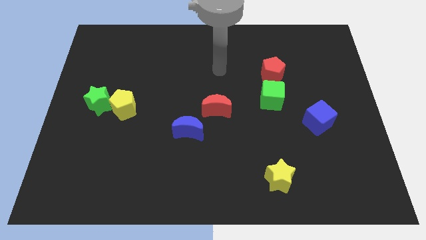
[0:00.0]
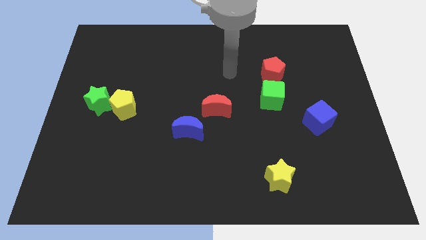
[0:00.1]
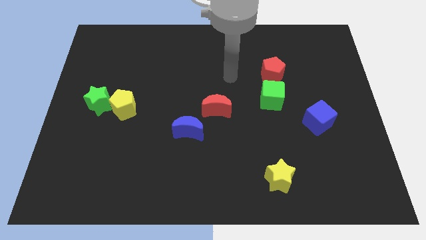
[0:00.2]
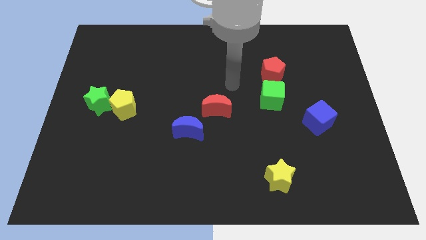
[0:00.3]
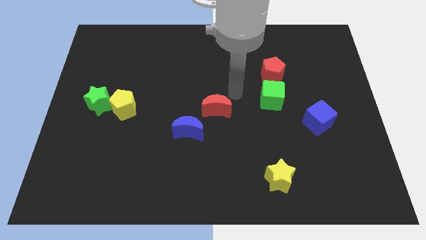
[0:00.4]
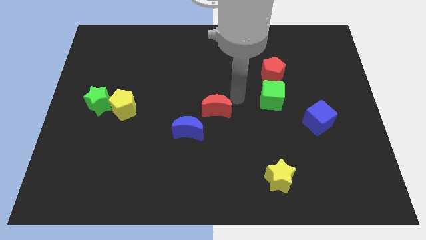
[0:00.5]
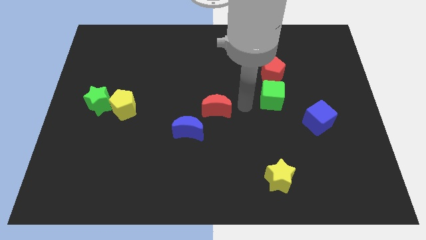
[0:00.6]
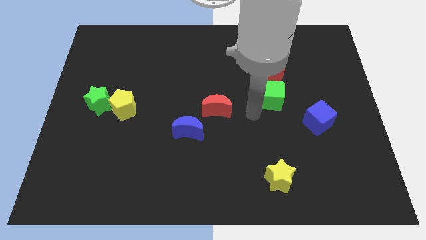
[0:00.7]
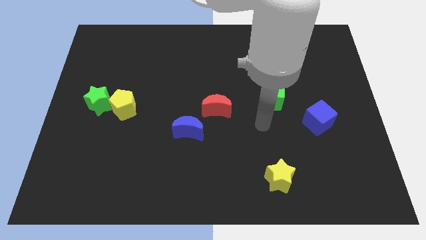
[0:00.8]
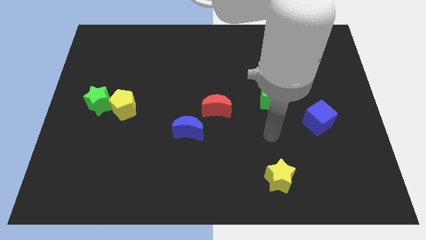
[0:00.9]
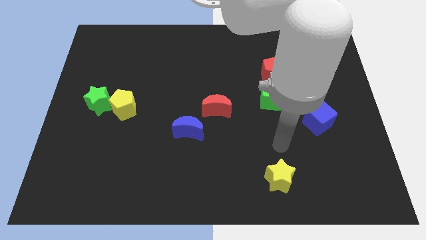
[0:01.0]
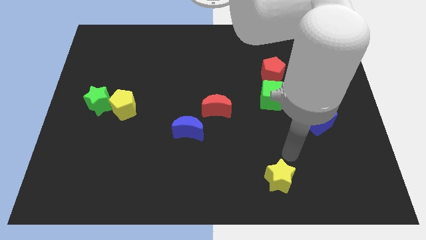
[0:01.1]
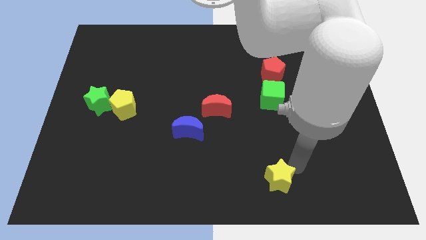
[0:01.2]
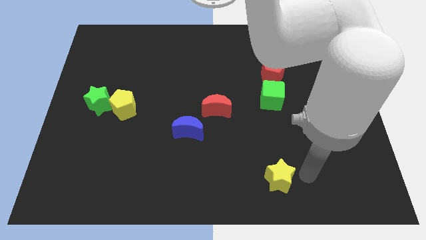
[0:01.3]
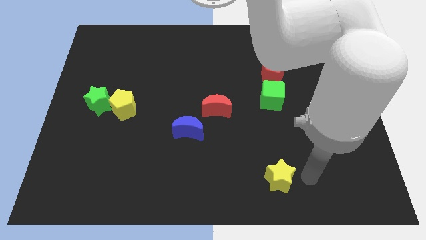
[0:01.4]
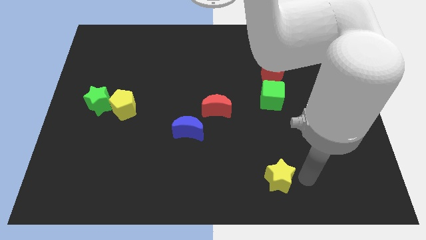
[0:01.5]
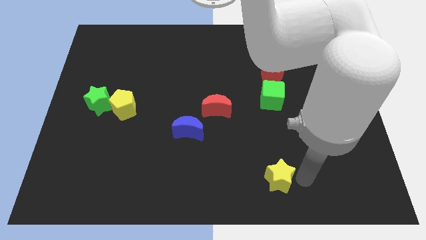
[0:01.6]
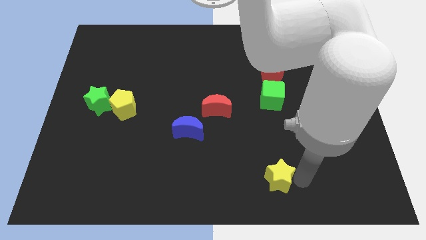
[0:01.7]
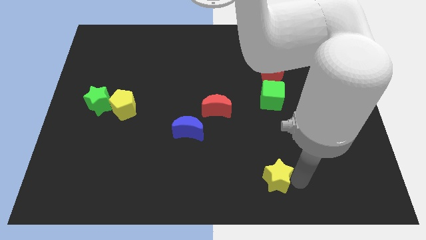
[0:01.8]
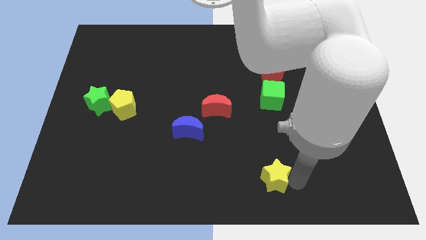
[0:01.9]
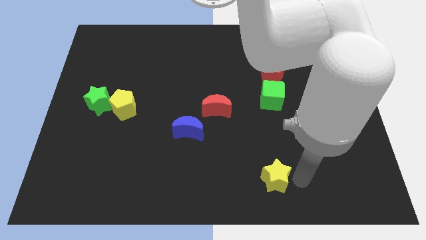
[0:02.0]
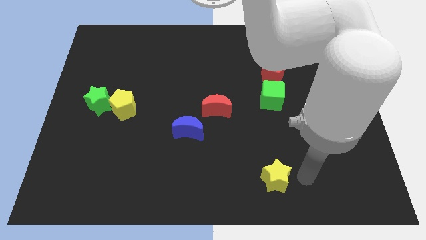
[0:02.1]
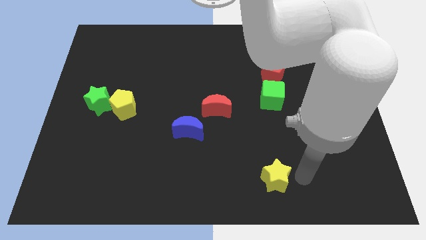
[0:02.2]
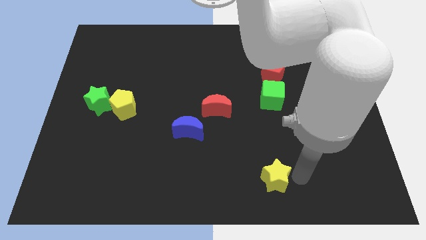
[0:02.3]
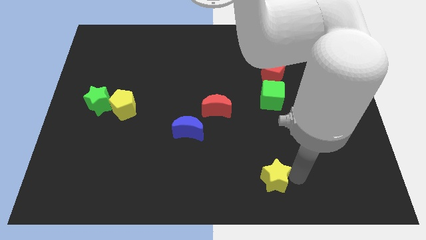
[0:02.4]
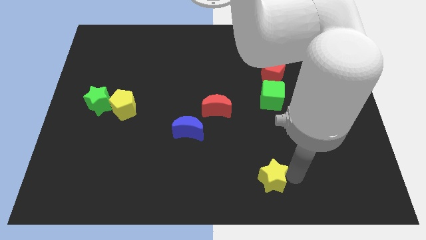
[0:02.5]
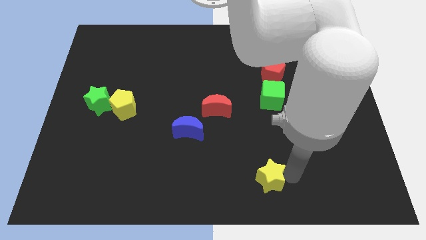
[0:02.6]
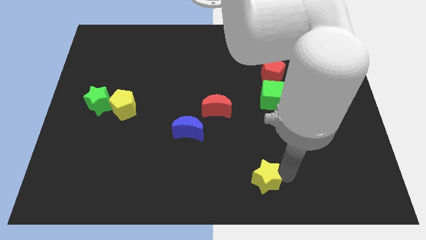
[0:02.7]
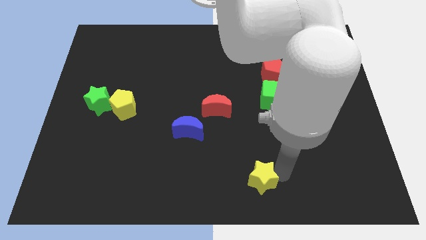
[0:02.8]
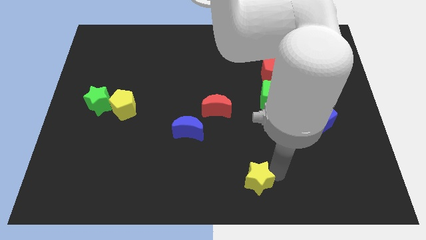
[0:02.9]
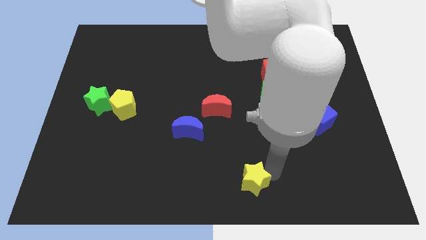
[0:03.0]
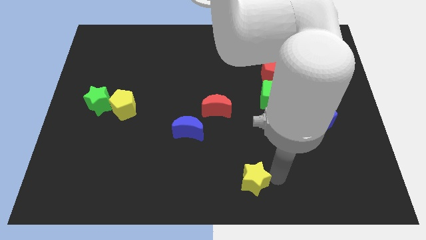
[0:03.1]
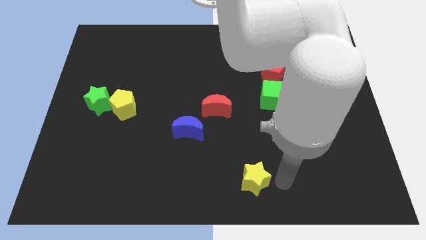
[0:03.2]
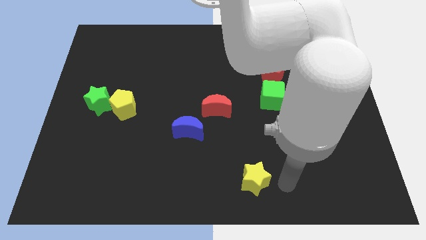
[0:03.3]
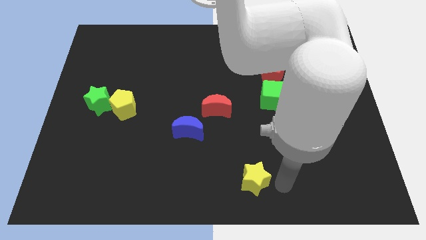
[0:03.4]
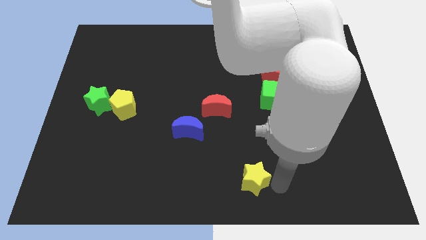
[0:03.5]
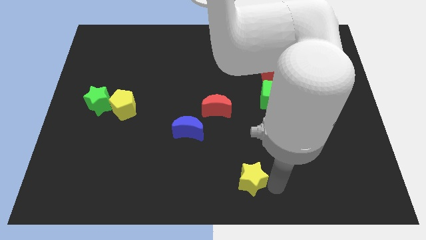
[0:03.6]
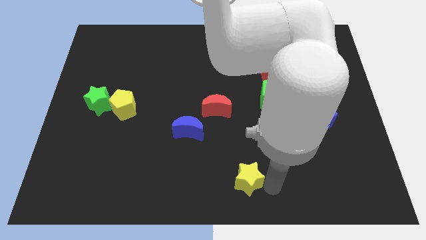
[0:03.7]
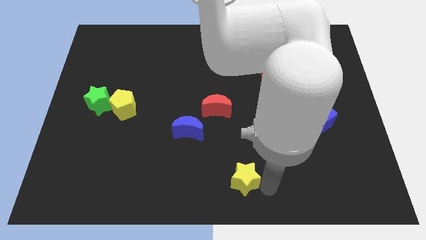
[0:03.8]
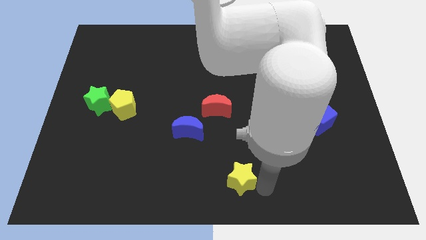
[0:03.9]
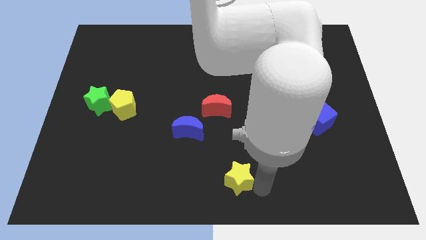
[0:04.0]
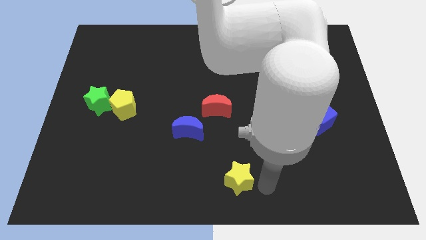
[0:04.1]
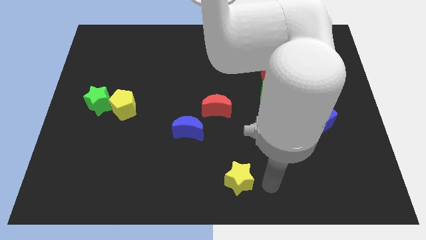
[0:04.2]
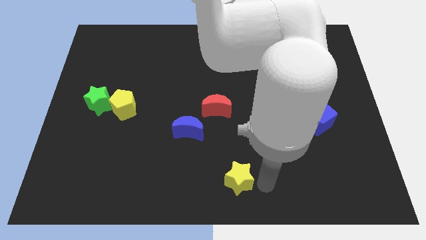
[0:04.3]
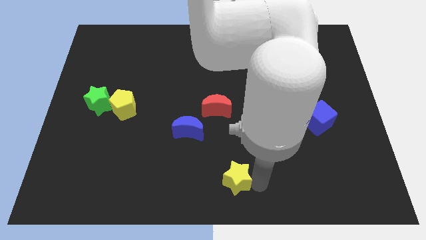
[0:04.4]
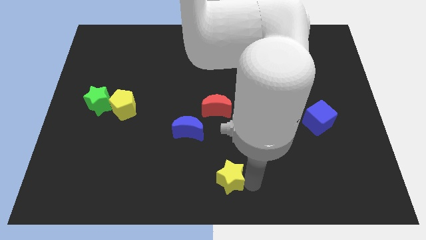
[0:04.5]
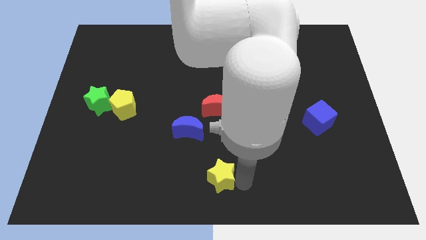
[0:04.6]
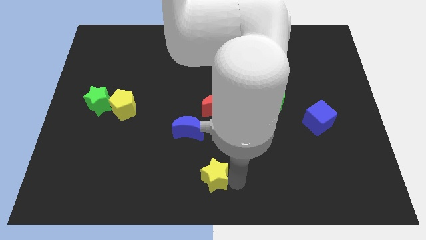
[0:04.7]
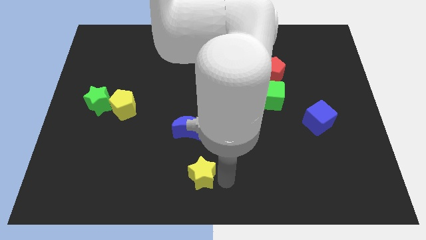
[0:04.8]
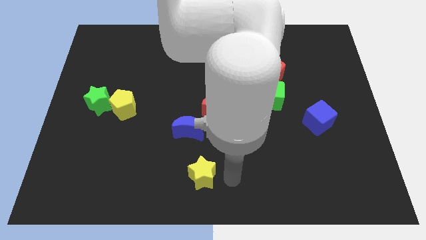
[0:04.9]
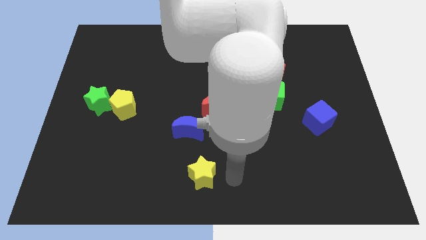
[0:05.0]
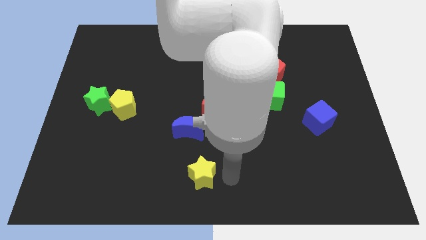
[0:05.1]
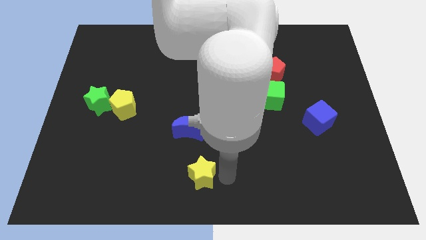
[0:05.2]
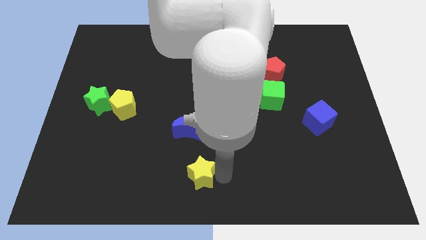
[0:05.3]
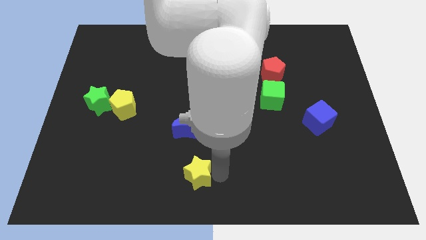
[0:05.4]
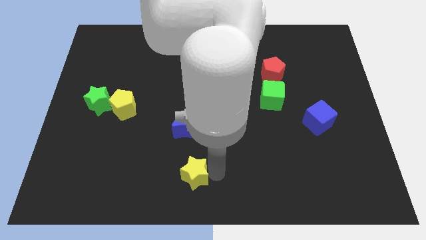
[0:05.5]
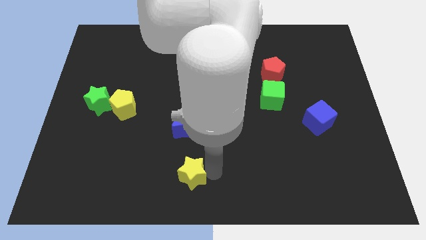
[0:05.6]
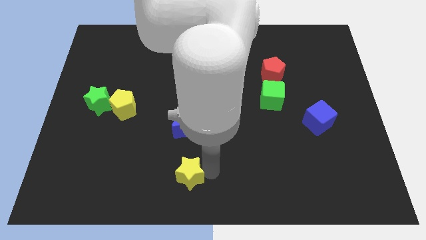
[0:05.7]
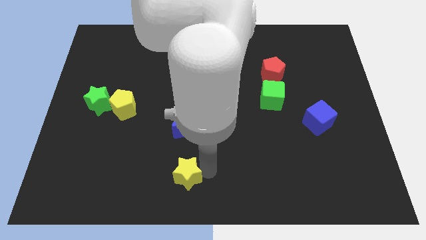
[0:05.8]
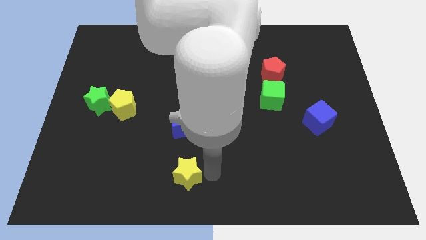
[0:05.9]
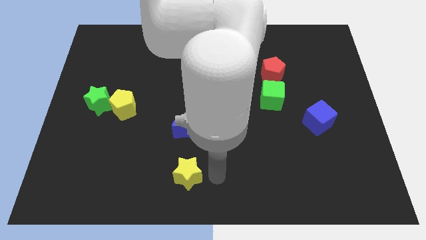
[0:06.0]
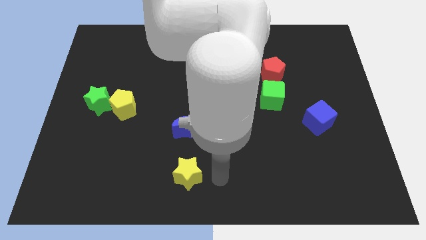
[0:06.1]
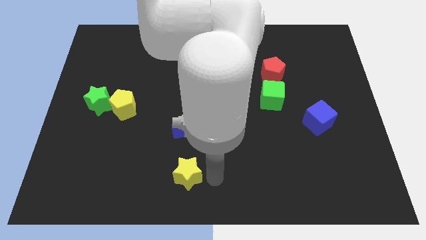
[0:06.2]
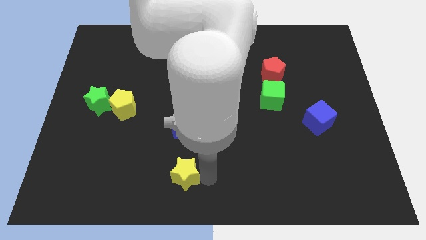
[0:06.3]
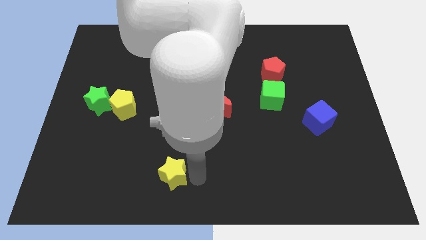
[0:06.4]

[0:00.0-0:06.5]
move the yellow star to the left

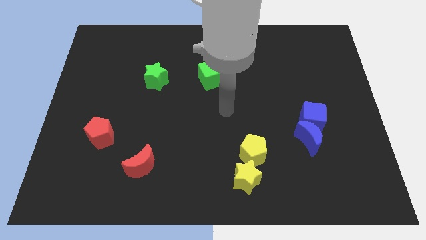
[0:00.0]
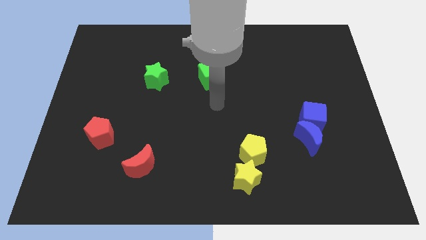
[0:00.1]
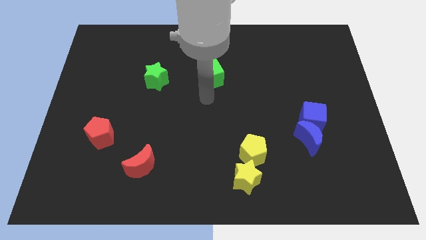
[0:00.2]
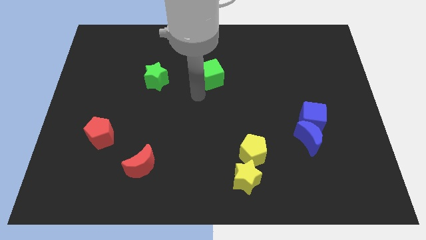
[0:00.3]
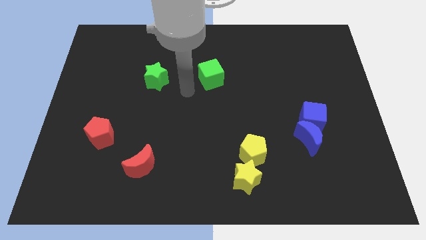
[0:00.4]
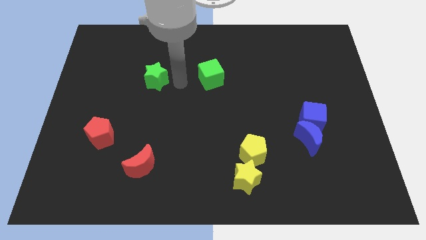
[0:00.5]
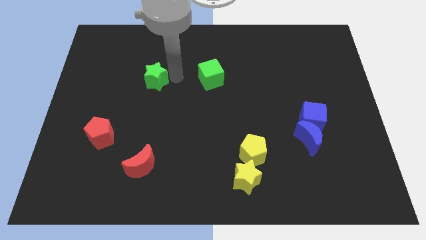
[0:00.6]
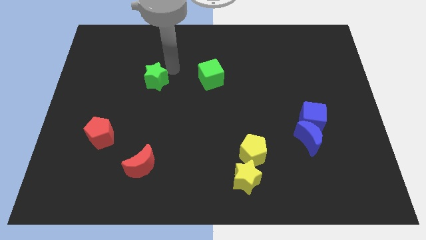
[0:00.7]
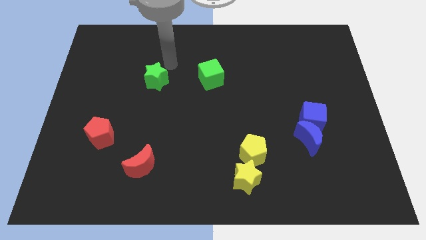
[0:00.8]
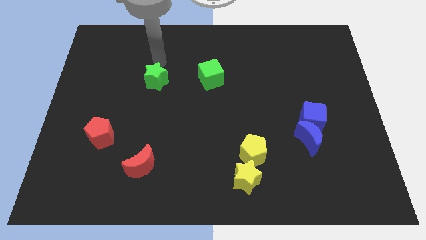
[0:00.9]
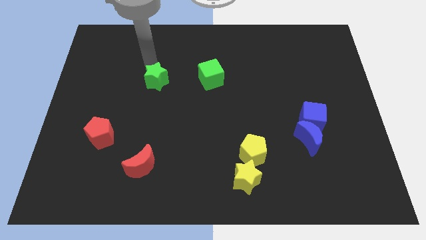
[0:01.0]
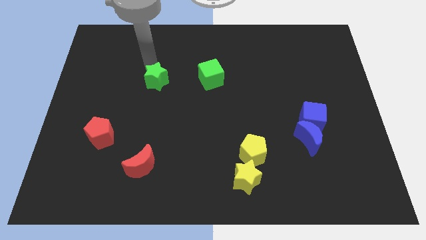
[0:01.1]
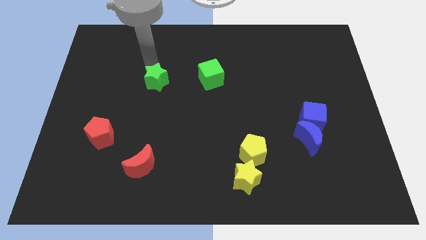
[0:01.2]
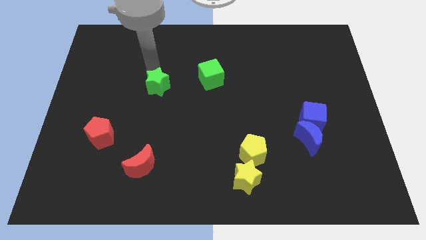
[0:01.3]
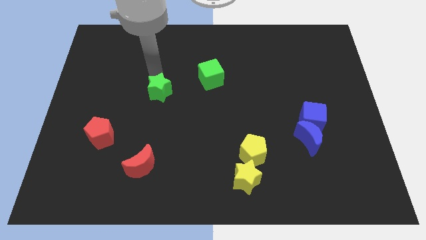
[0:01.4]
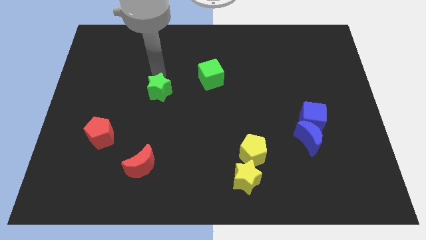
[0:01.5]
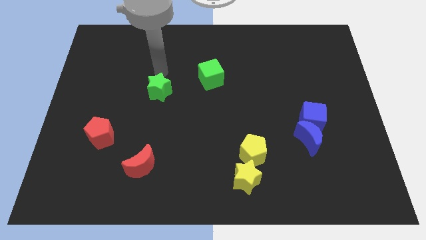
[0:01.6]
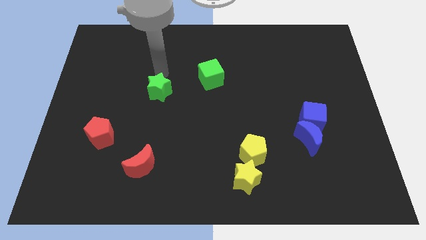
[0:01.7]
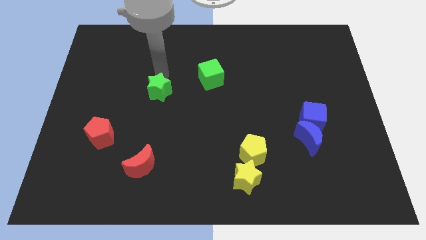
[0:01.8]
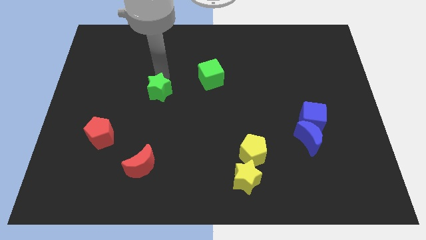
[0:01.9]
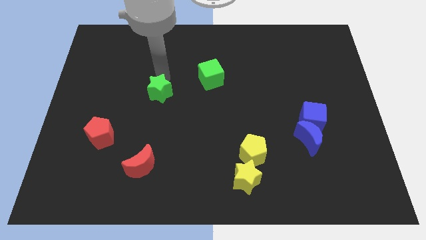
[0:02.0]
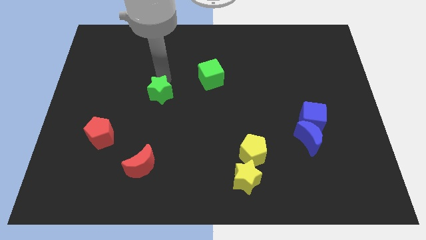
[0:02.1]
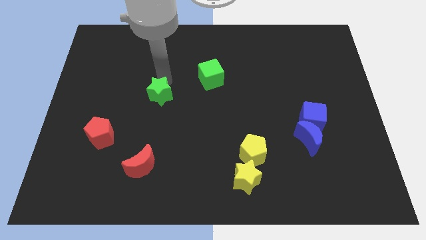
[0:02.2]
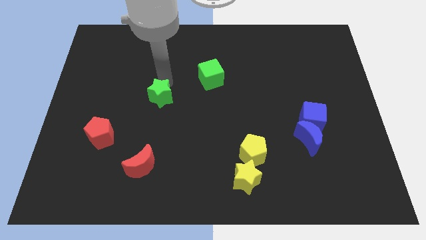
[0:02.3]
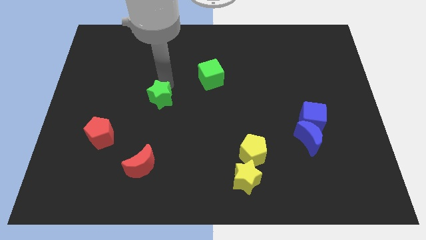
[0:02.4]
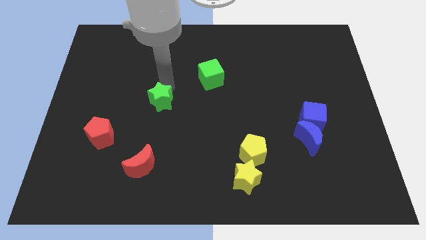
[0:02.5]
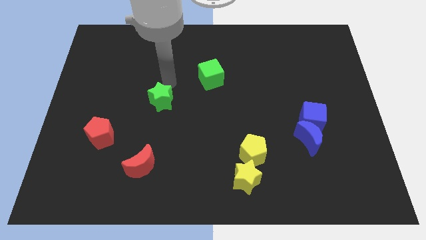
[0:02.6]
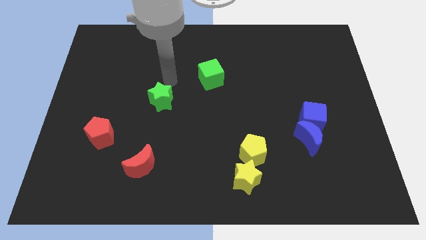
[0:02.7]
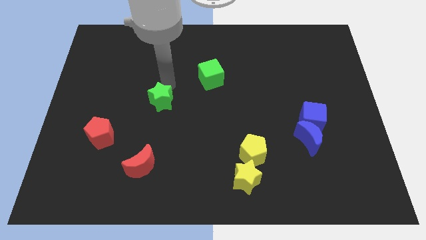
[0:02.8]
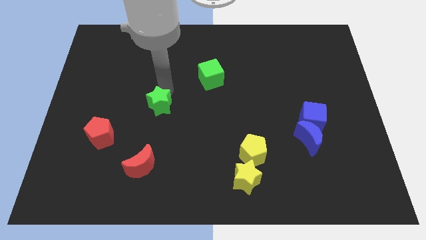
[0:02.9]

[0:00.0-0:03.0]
slide the green star down a bit
